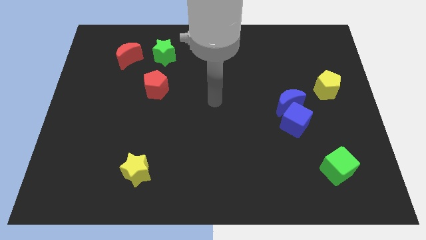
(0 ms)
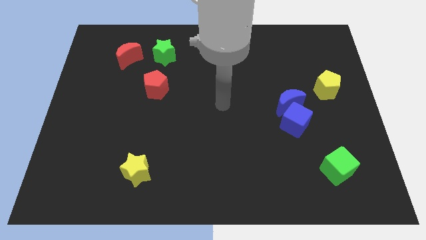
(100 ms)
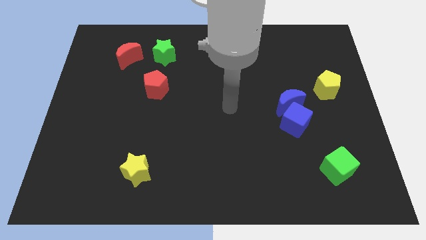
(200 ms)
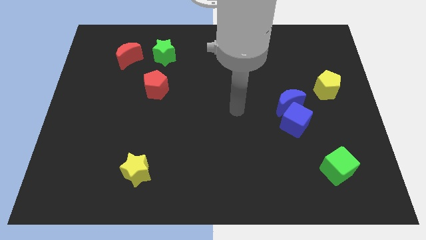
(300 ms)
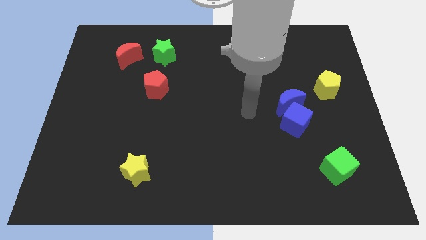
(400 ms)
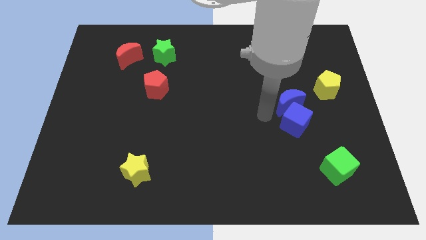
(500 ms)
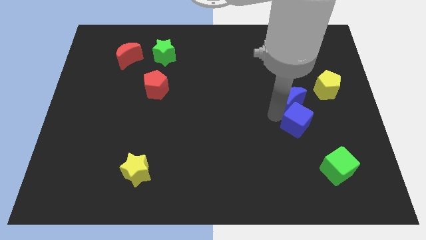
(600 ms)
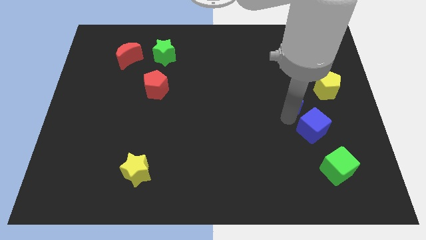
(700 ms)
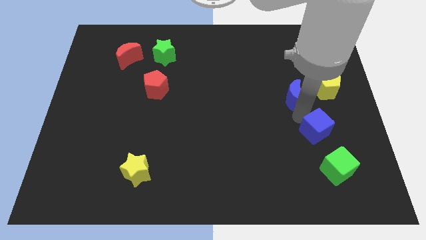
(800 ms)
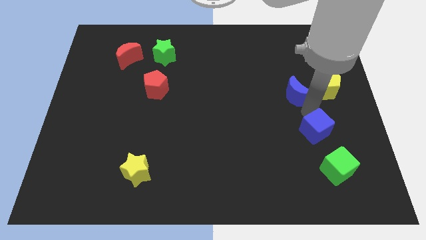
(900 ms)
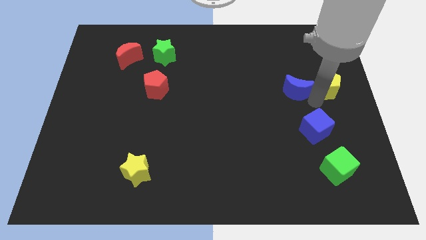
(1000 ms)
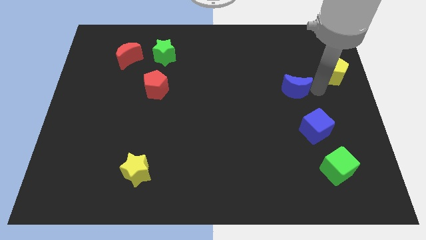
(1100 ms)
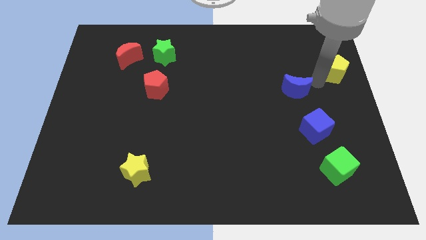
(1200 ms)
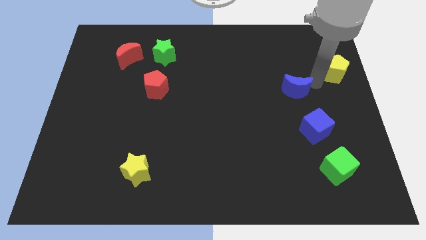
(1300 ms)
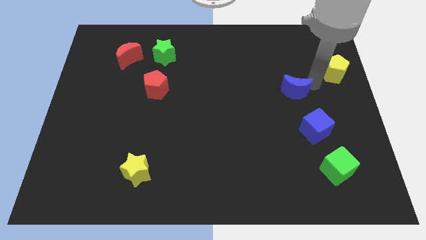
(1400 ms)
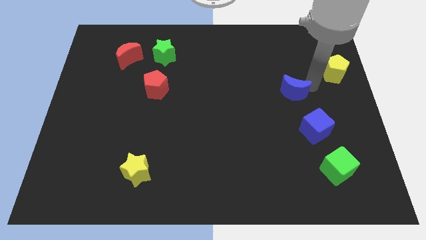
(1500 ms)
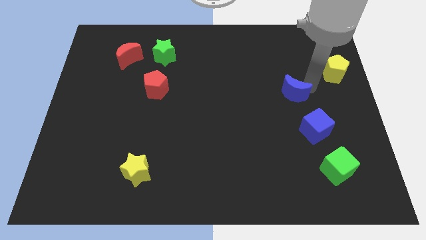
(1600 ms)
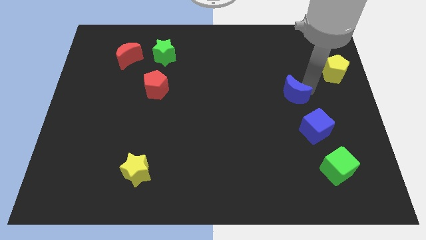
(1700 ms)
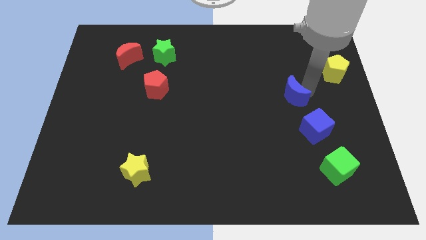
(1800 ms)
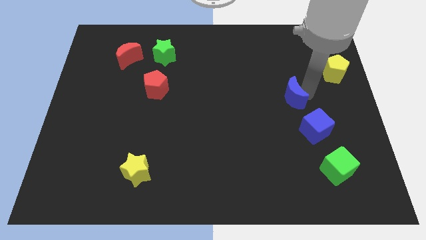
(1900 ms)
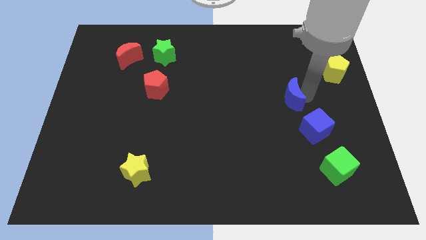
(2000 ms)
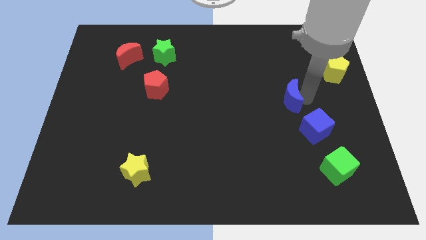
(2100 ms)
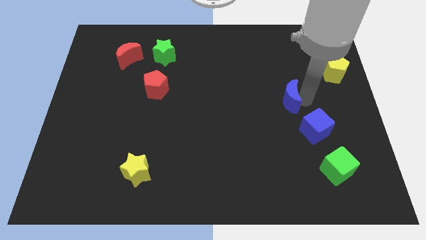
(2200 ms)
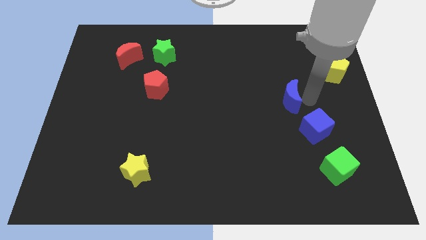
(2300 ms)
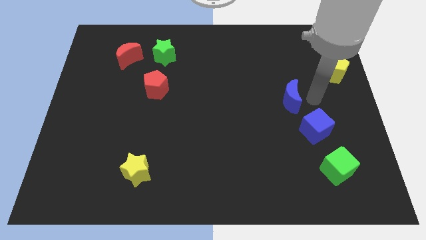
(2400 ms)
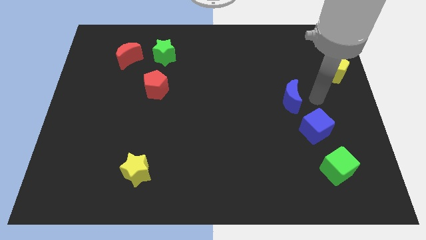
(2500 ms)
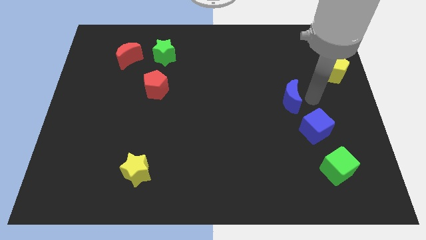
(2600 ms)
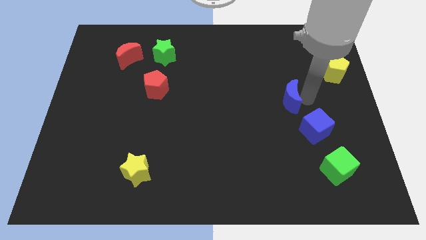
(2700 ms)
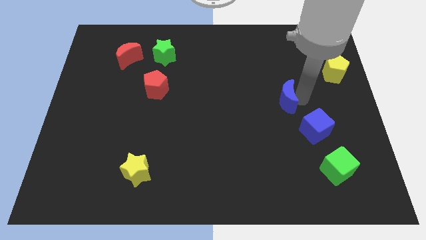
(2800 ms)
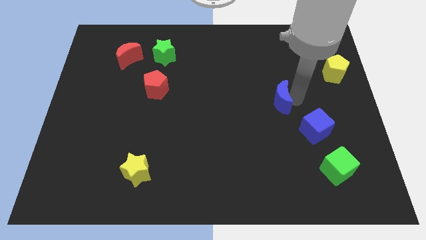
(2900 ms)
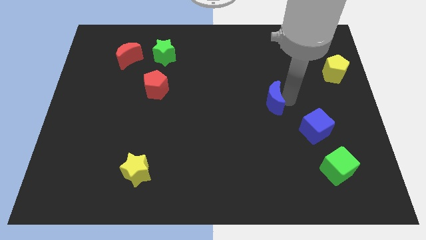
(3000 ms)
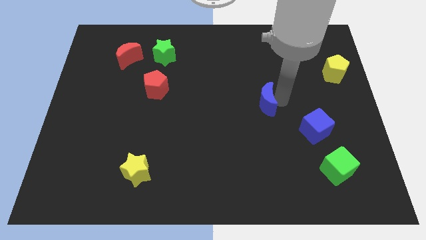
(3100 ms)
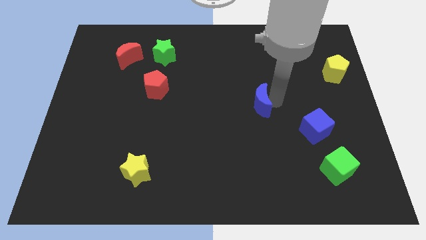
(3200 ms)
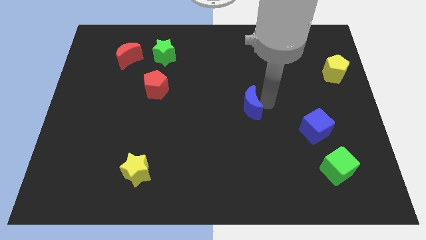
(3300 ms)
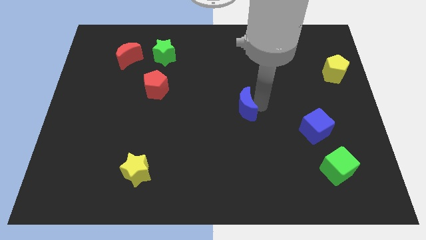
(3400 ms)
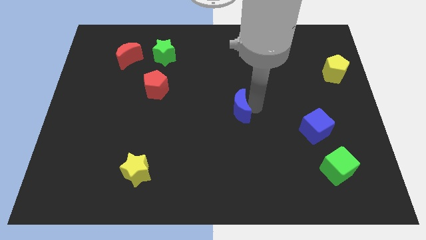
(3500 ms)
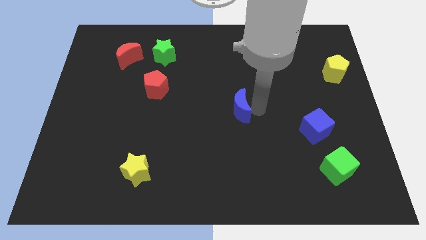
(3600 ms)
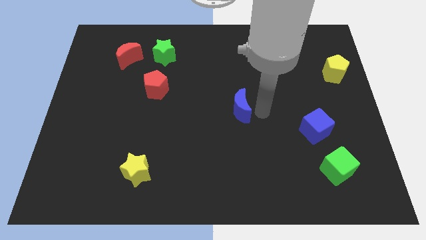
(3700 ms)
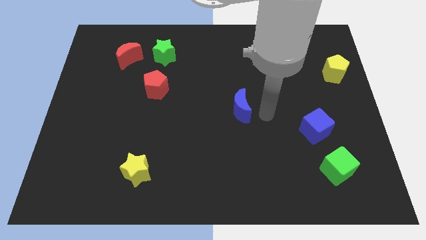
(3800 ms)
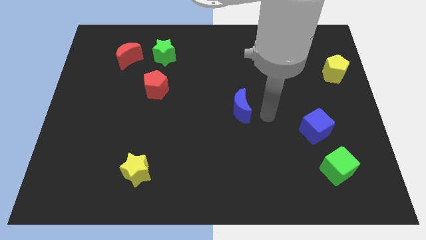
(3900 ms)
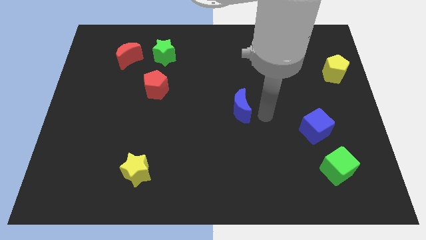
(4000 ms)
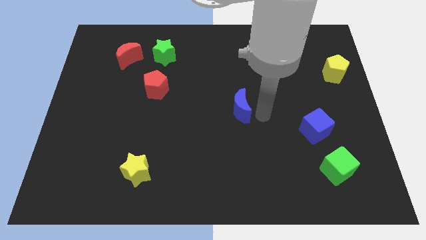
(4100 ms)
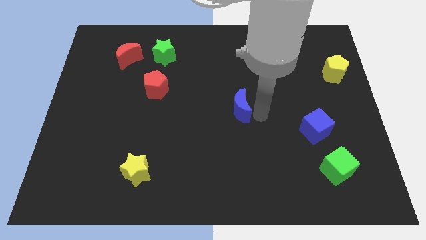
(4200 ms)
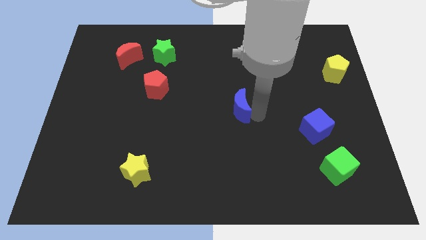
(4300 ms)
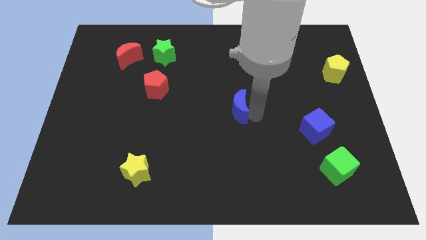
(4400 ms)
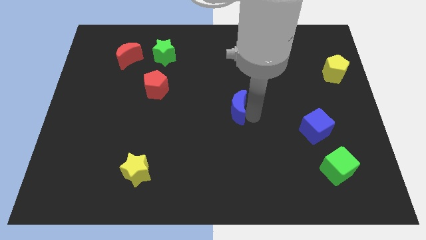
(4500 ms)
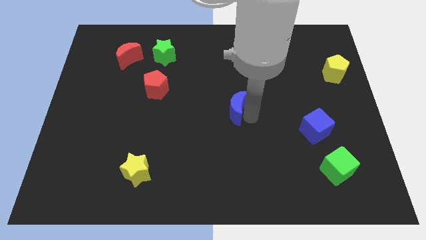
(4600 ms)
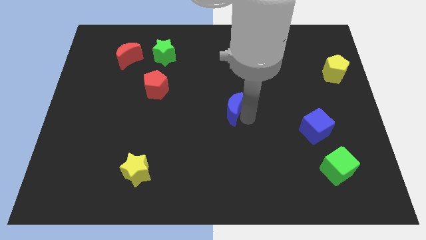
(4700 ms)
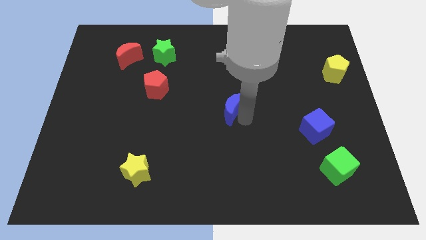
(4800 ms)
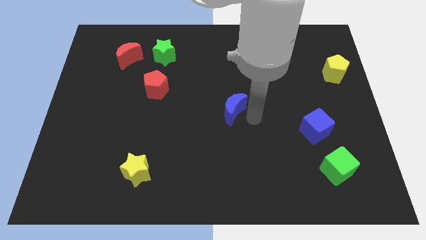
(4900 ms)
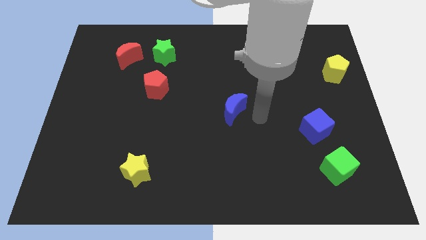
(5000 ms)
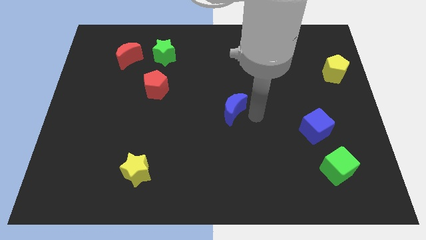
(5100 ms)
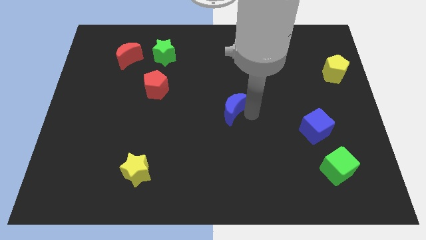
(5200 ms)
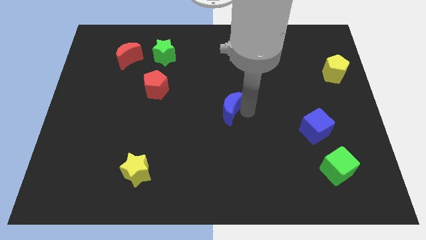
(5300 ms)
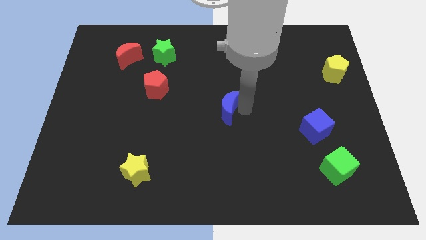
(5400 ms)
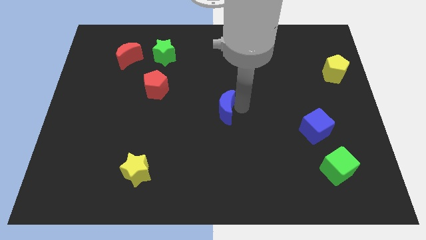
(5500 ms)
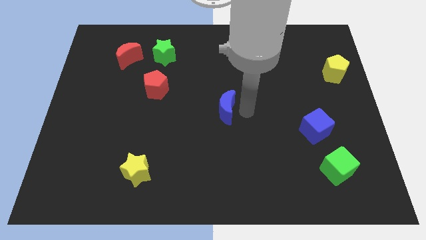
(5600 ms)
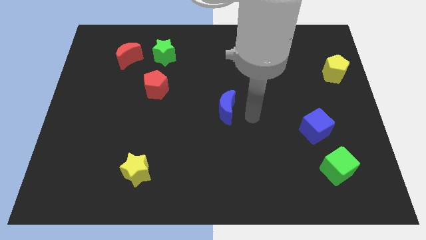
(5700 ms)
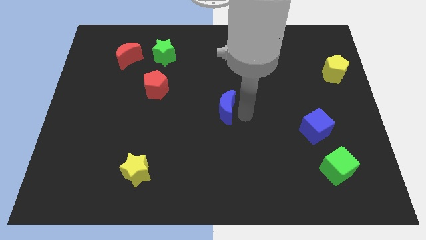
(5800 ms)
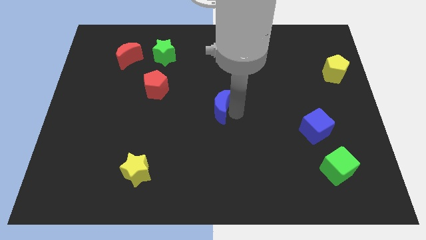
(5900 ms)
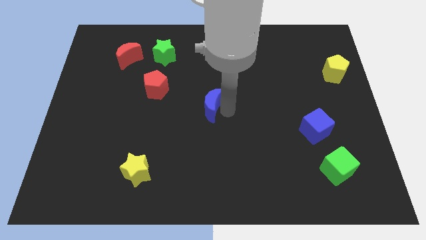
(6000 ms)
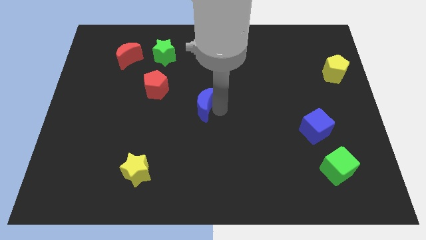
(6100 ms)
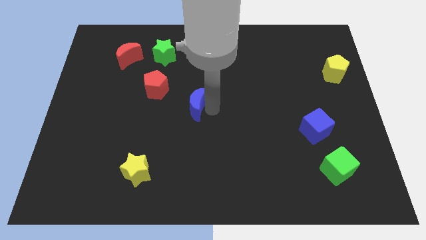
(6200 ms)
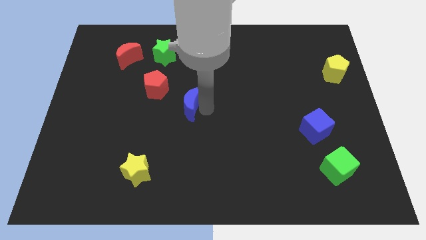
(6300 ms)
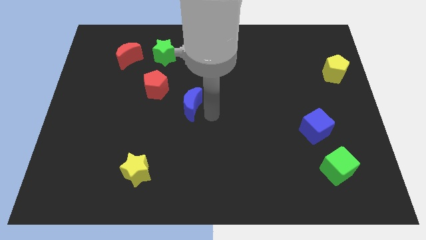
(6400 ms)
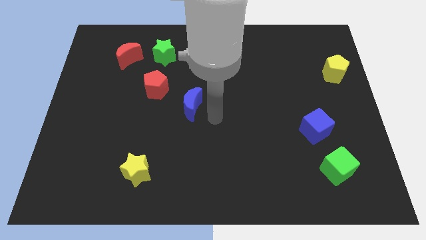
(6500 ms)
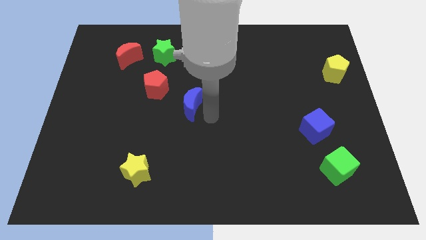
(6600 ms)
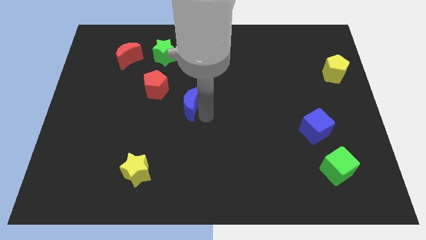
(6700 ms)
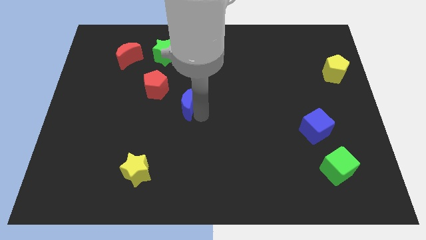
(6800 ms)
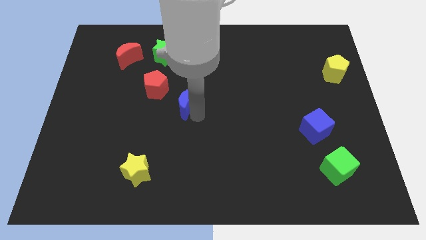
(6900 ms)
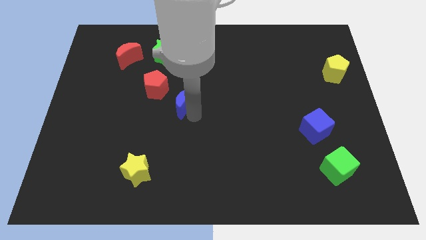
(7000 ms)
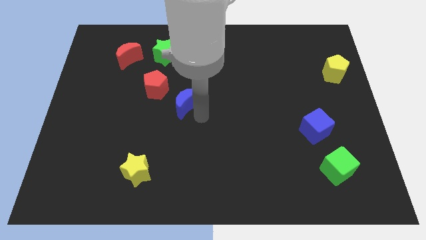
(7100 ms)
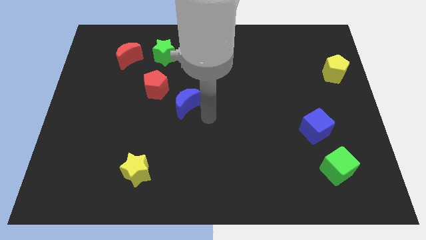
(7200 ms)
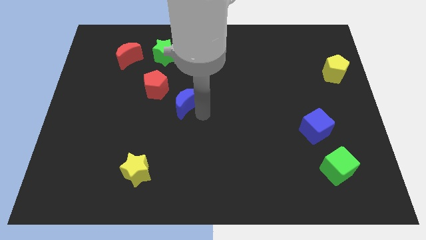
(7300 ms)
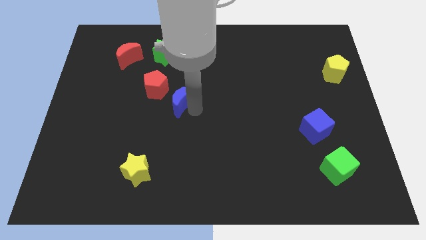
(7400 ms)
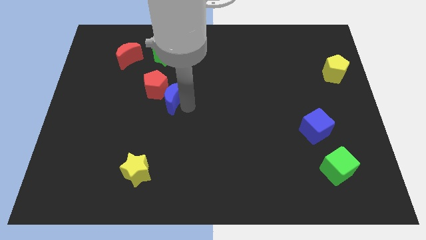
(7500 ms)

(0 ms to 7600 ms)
push the blue moon close to the red pentagon
